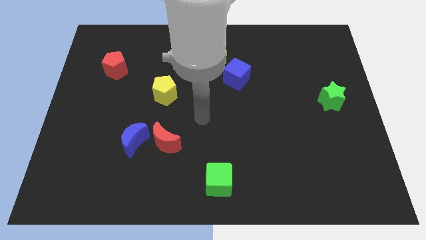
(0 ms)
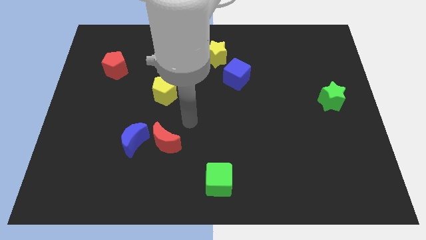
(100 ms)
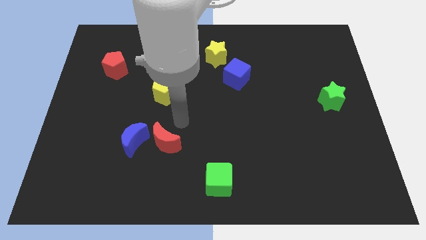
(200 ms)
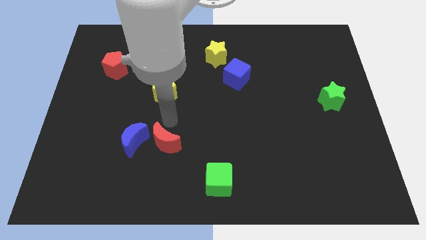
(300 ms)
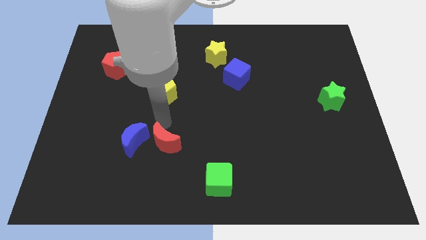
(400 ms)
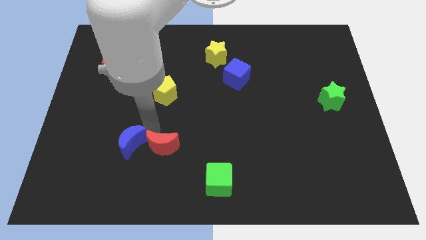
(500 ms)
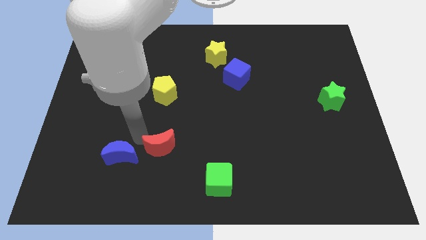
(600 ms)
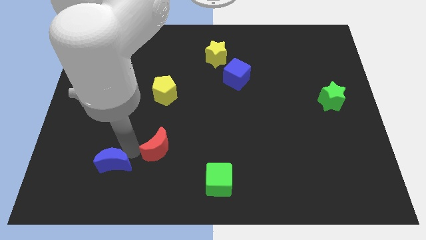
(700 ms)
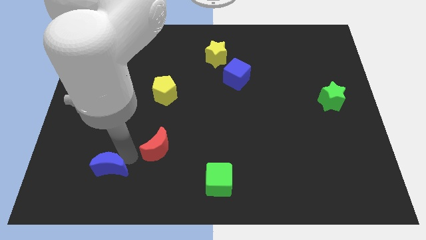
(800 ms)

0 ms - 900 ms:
pull the red moon apart from the blue moon

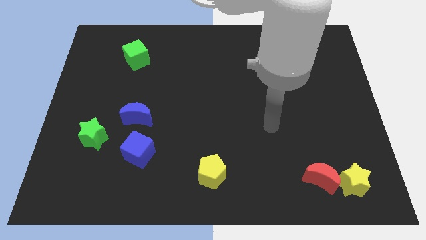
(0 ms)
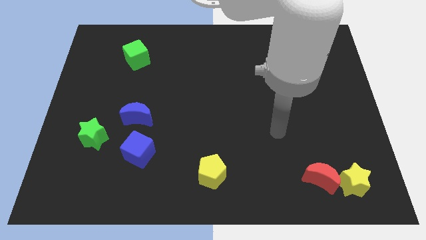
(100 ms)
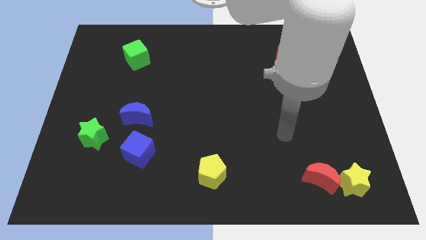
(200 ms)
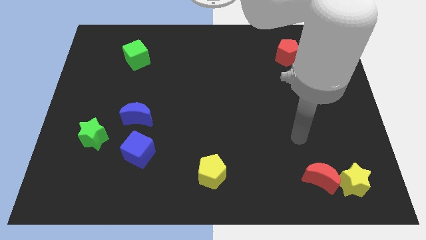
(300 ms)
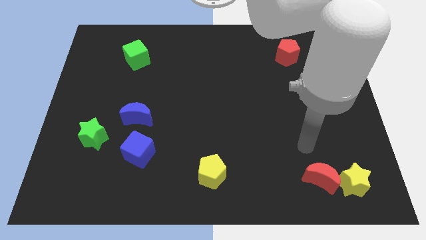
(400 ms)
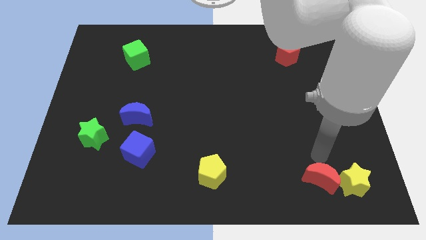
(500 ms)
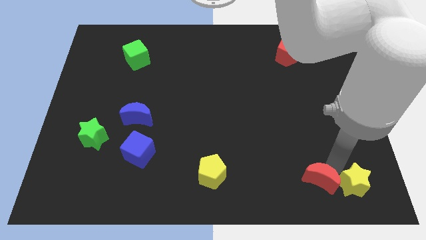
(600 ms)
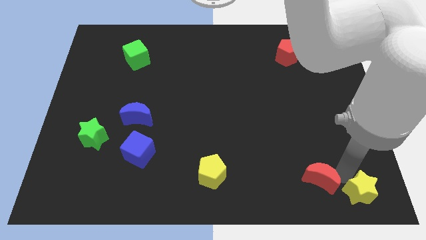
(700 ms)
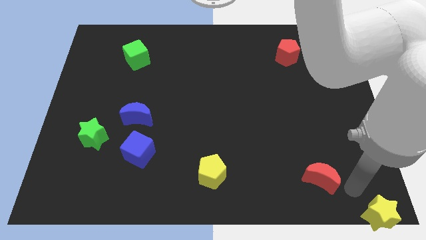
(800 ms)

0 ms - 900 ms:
pull the red moon apart from the yellow star

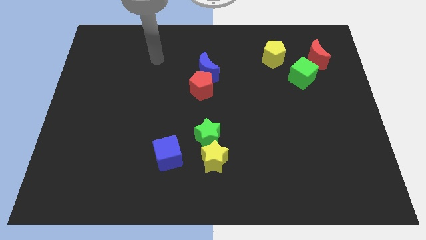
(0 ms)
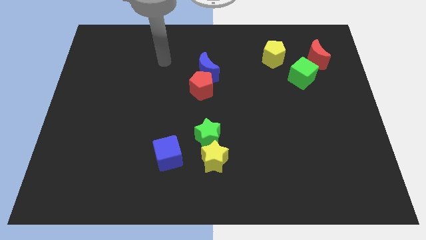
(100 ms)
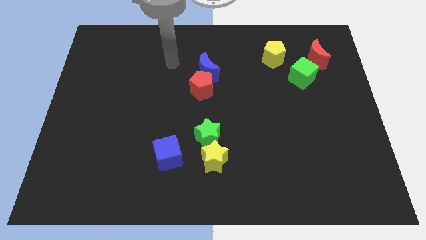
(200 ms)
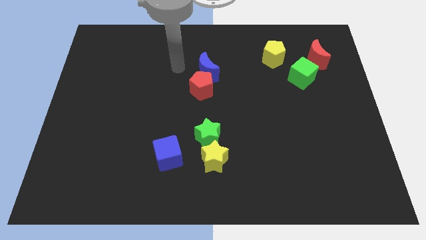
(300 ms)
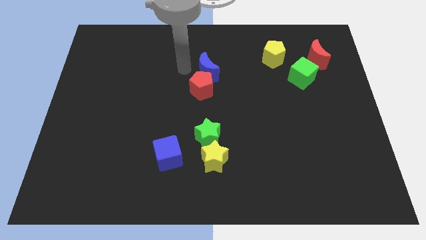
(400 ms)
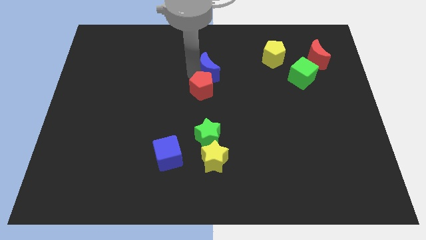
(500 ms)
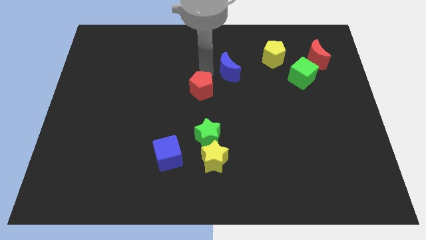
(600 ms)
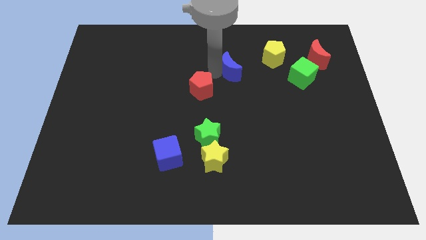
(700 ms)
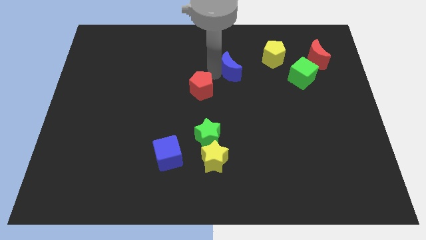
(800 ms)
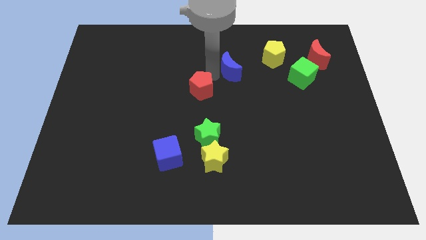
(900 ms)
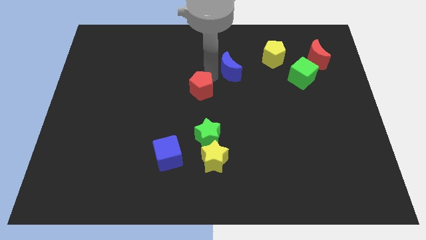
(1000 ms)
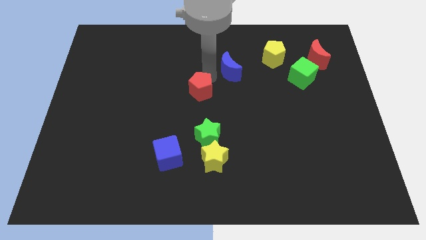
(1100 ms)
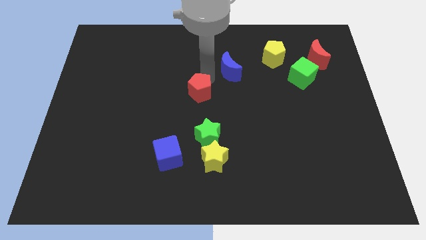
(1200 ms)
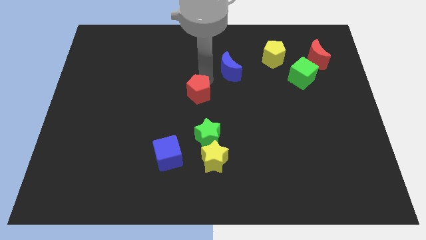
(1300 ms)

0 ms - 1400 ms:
pull the red pentagon apart from the blue moon

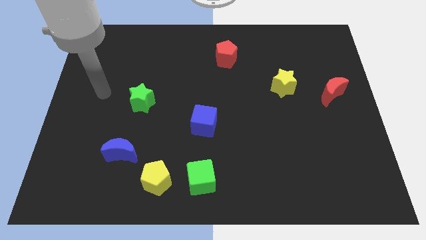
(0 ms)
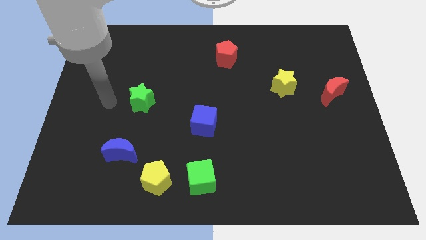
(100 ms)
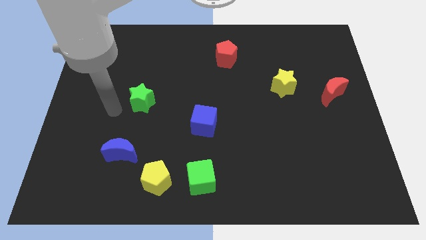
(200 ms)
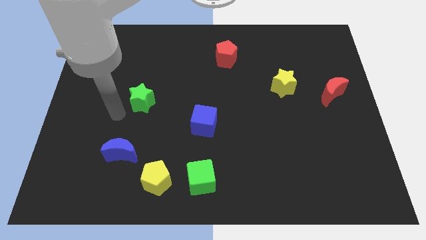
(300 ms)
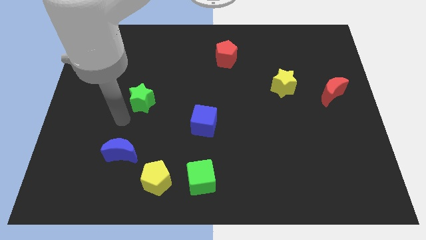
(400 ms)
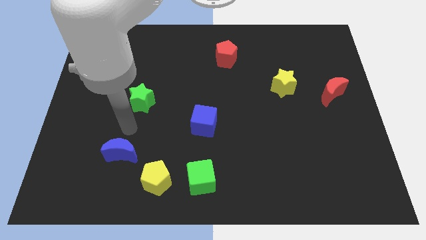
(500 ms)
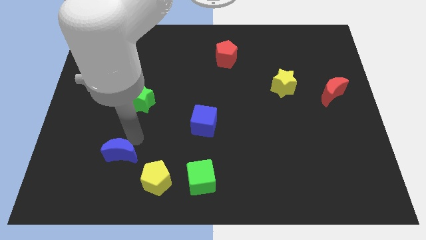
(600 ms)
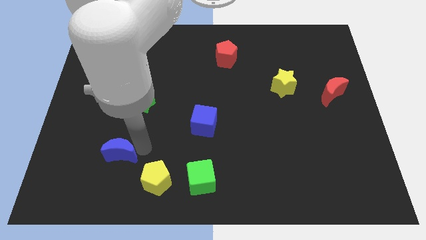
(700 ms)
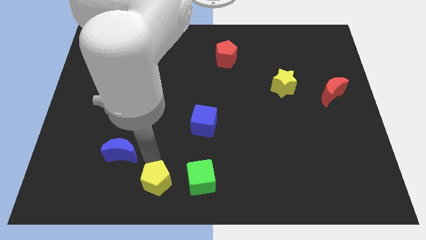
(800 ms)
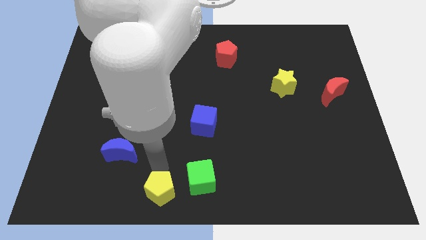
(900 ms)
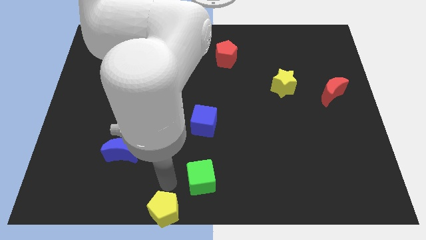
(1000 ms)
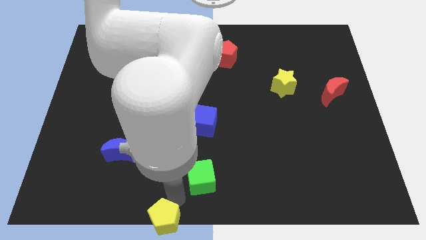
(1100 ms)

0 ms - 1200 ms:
pull the green cube apart from the yellow pentagon

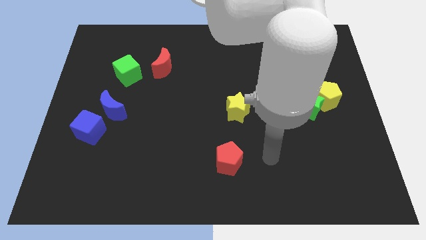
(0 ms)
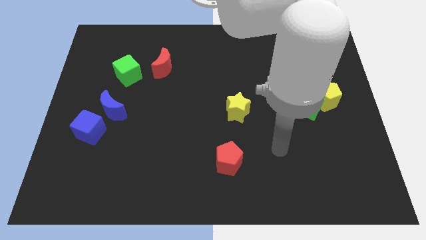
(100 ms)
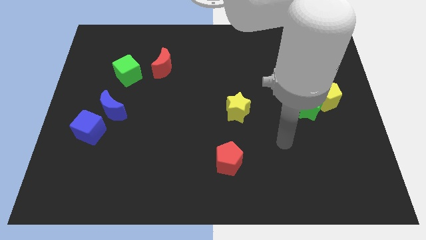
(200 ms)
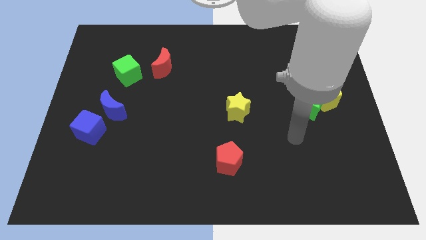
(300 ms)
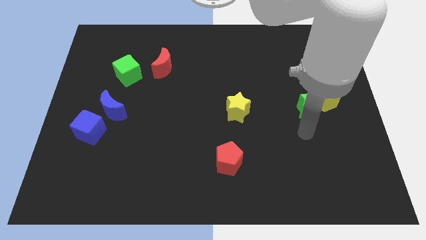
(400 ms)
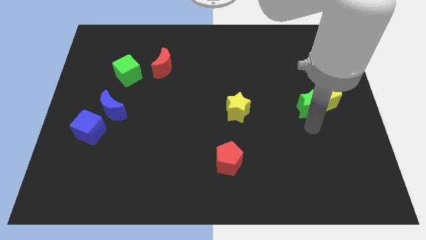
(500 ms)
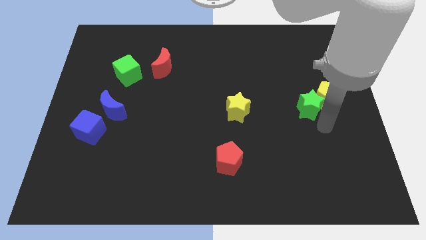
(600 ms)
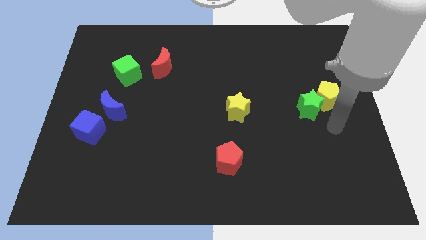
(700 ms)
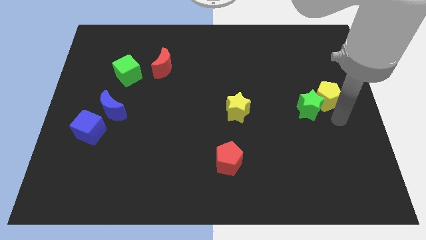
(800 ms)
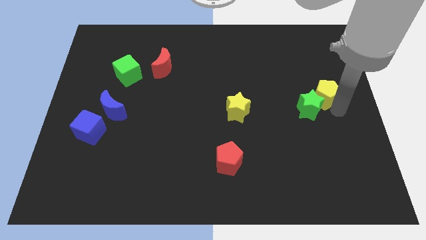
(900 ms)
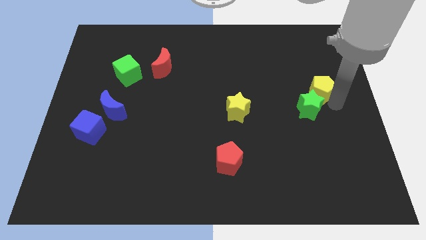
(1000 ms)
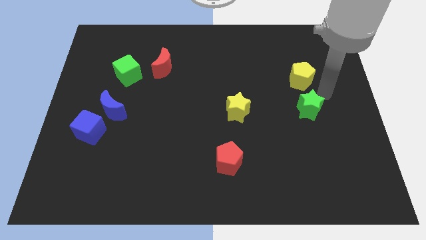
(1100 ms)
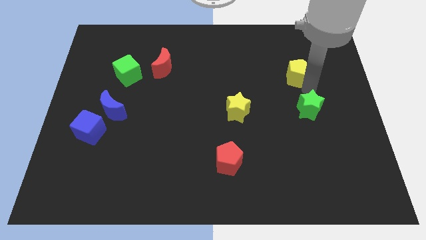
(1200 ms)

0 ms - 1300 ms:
pull the green star apart from the yellow pentagon

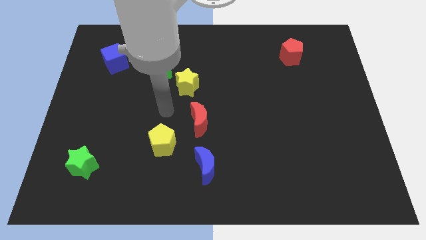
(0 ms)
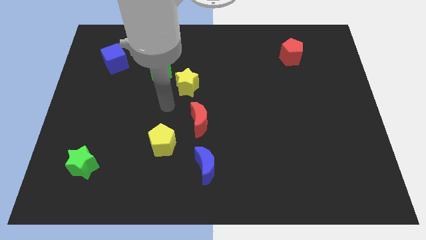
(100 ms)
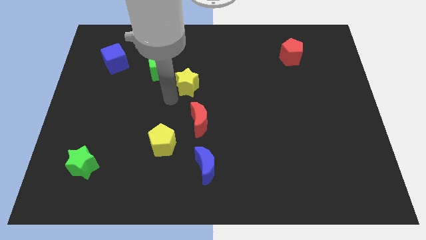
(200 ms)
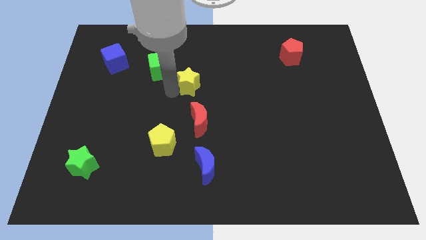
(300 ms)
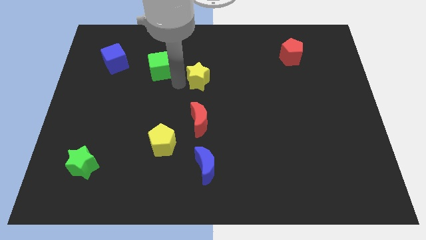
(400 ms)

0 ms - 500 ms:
move the green cube away from the yellow star

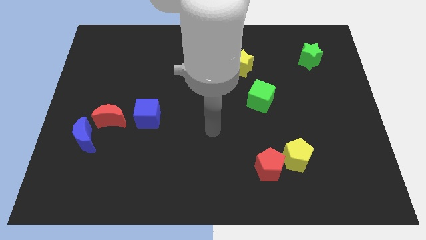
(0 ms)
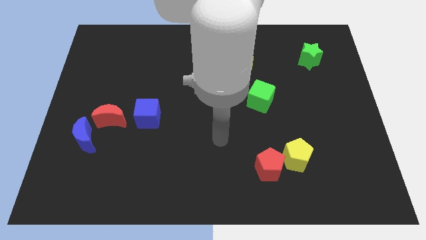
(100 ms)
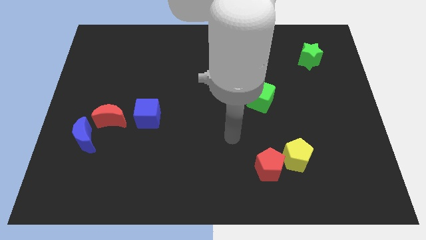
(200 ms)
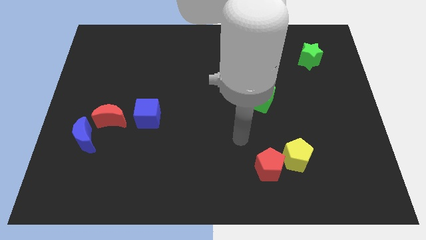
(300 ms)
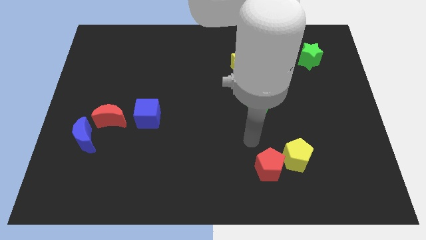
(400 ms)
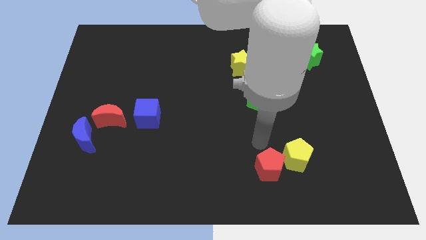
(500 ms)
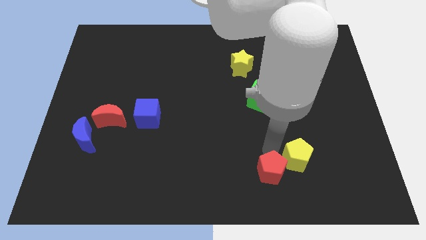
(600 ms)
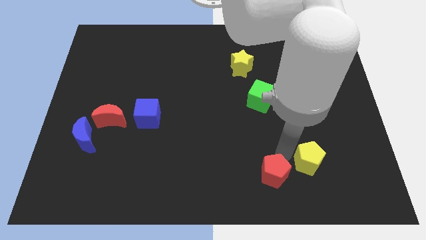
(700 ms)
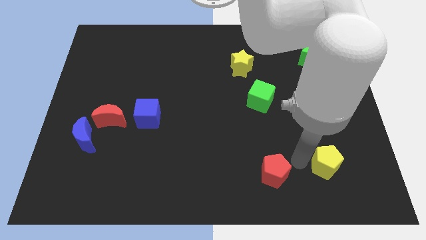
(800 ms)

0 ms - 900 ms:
pull the red pentagon apart from the yellow pentagon

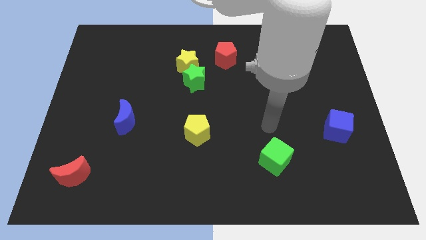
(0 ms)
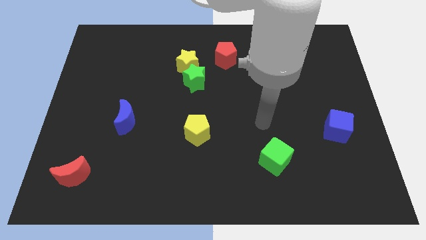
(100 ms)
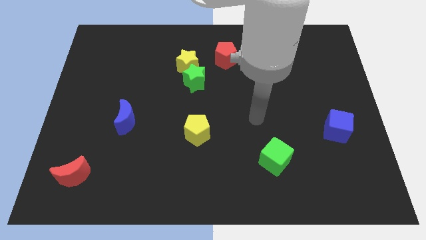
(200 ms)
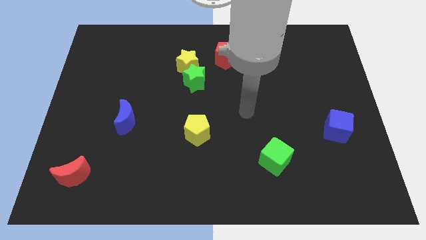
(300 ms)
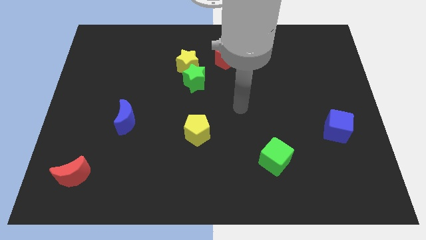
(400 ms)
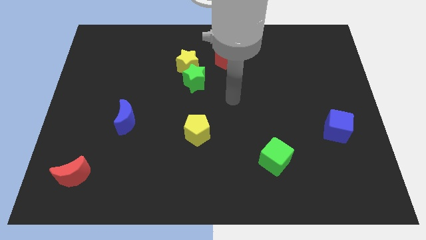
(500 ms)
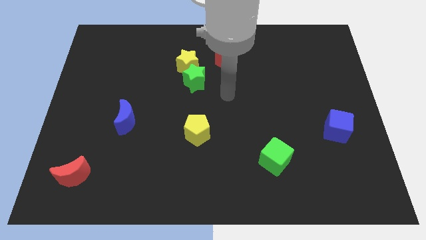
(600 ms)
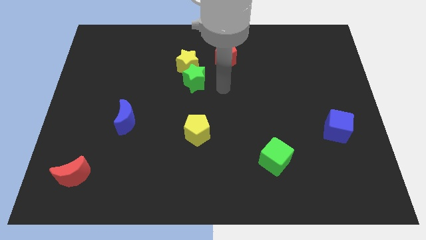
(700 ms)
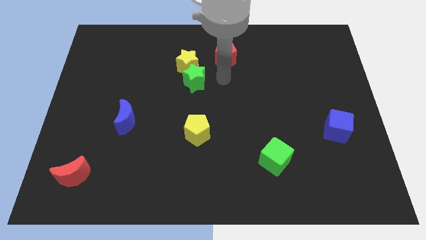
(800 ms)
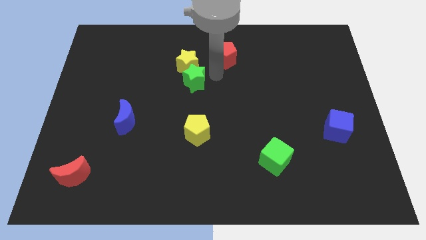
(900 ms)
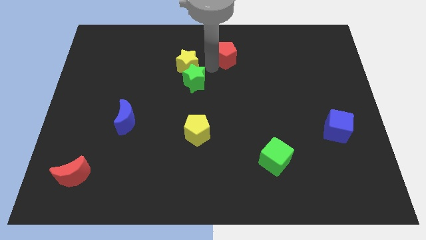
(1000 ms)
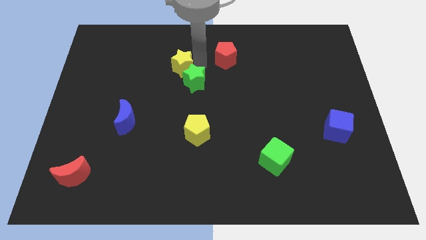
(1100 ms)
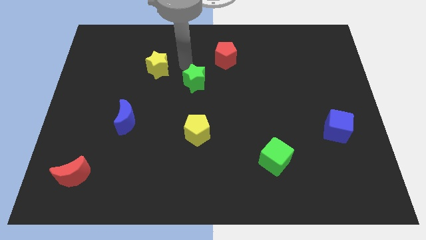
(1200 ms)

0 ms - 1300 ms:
pull the green star apart from the yellow star

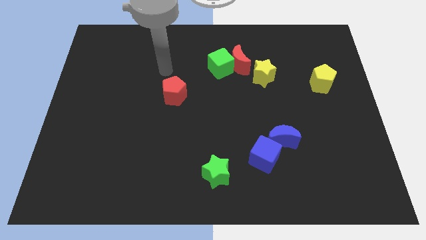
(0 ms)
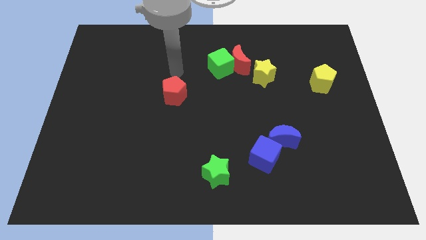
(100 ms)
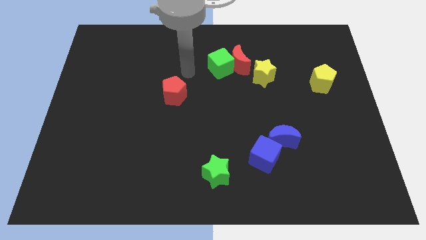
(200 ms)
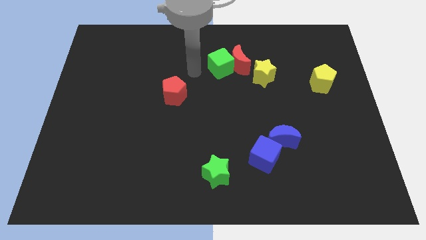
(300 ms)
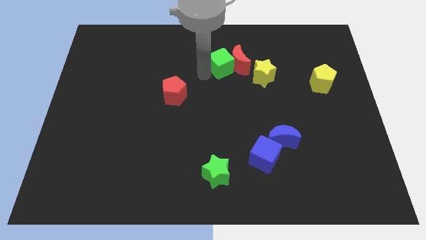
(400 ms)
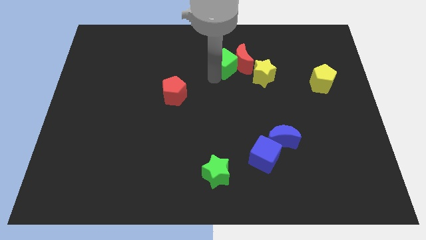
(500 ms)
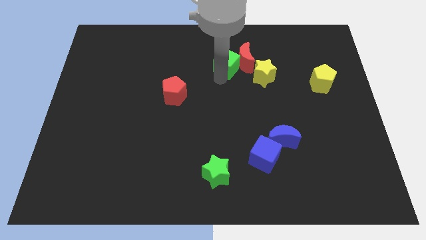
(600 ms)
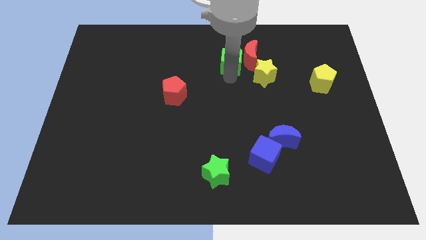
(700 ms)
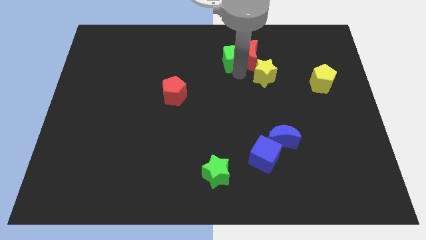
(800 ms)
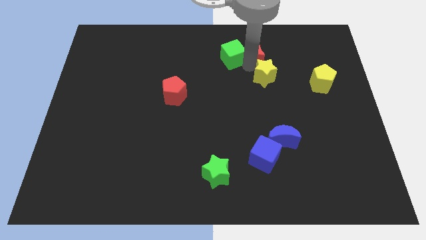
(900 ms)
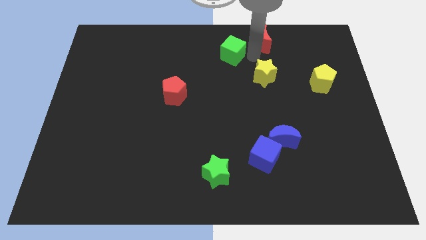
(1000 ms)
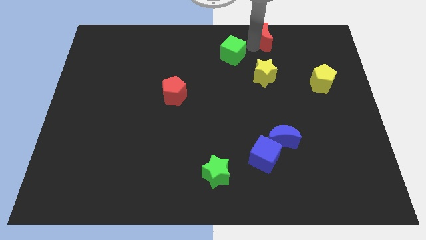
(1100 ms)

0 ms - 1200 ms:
separate the green cube from the red moon
